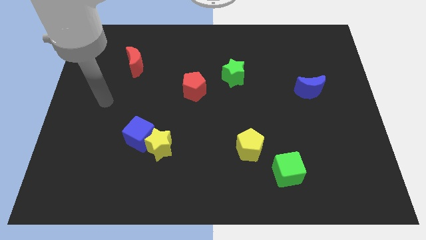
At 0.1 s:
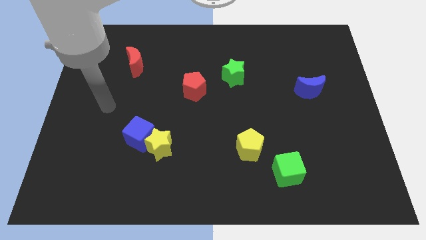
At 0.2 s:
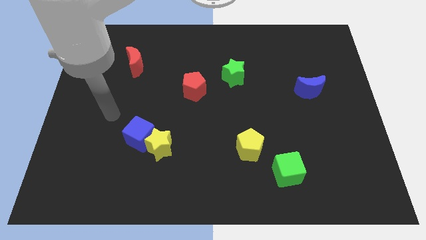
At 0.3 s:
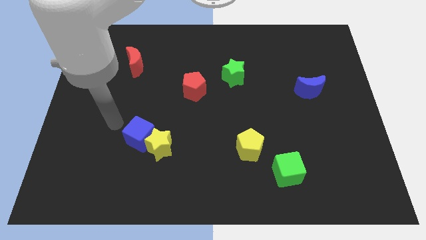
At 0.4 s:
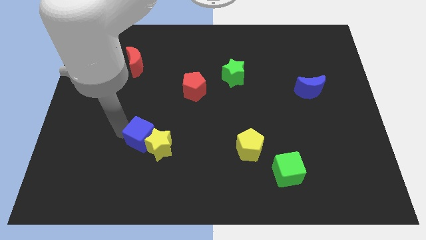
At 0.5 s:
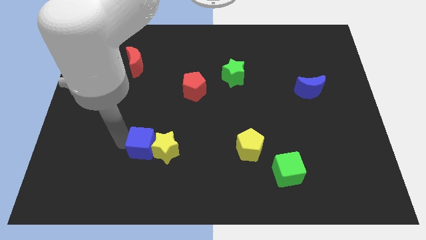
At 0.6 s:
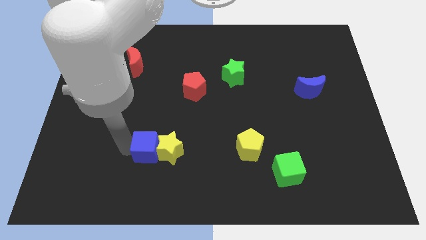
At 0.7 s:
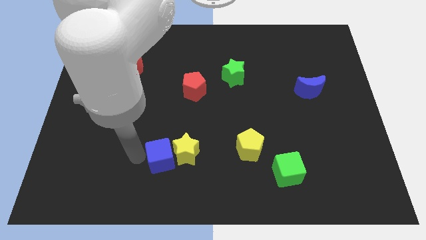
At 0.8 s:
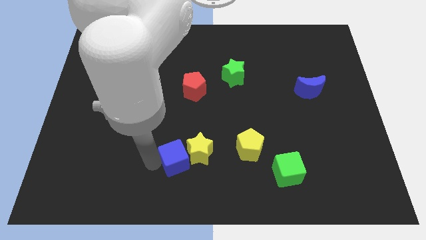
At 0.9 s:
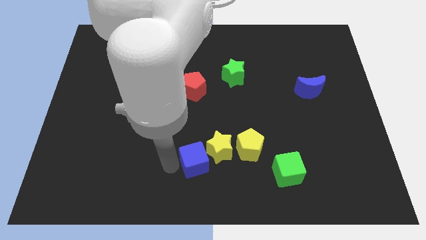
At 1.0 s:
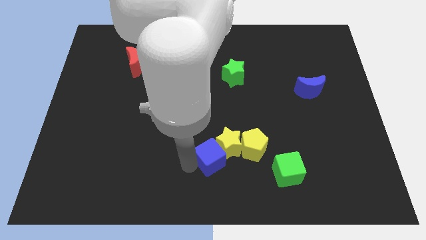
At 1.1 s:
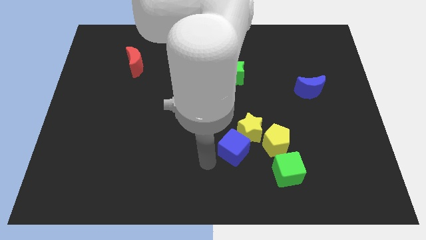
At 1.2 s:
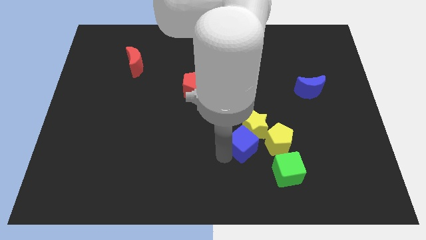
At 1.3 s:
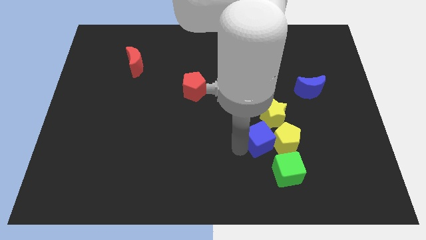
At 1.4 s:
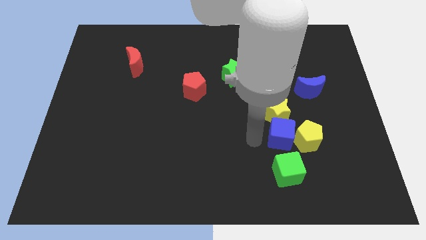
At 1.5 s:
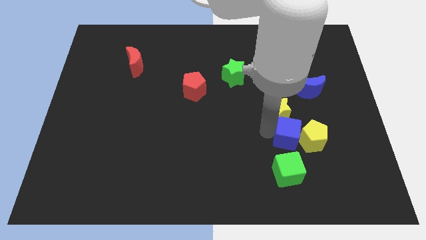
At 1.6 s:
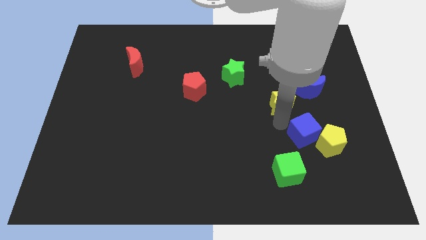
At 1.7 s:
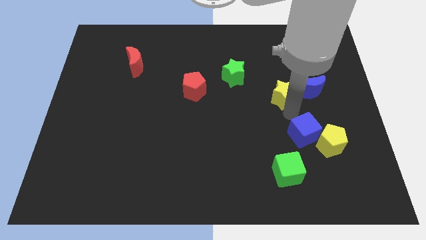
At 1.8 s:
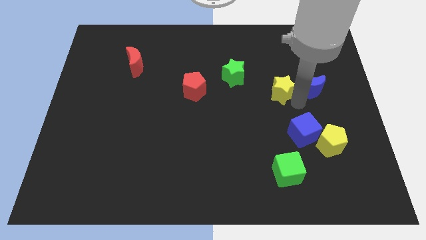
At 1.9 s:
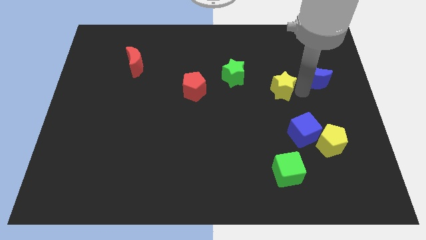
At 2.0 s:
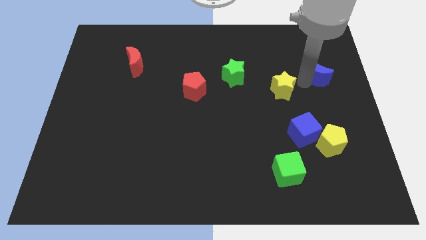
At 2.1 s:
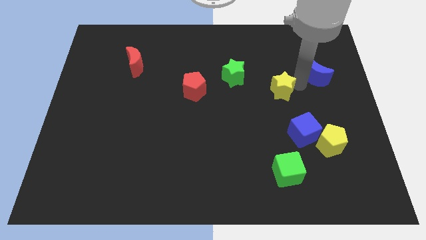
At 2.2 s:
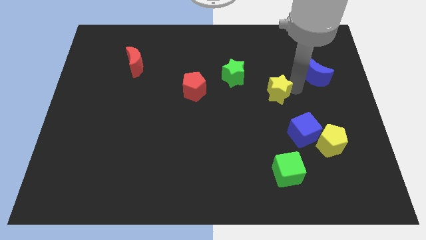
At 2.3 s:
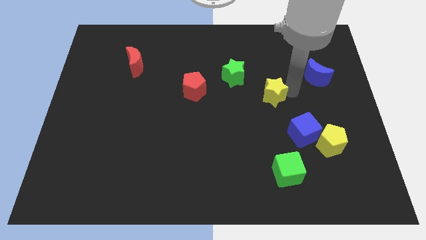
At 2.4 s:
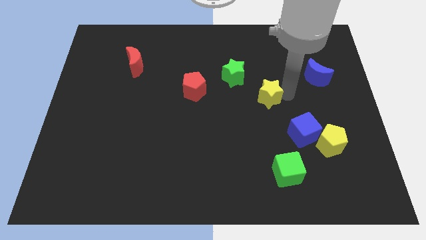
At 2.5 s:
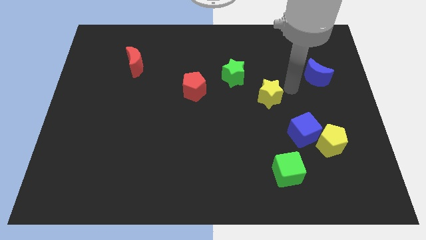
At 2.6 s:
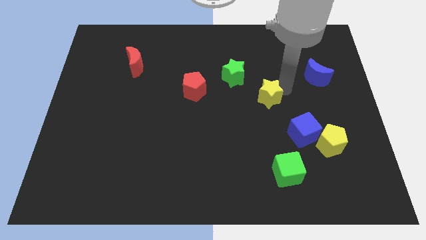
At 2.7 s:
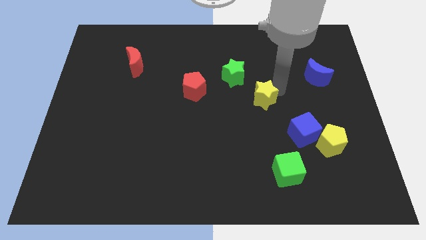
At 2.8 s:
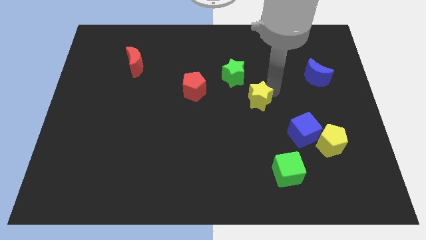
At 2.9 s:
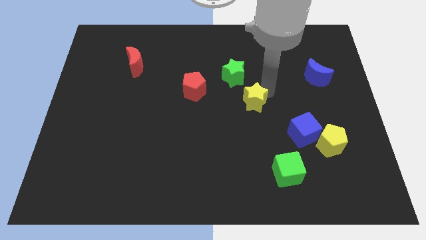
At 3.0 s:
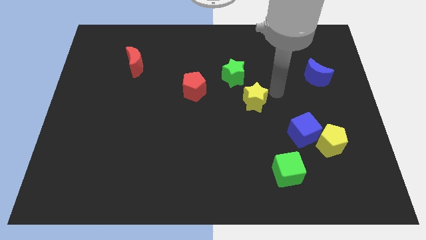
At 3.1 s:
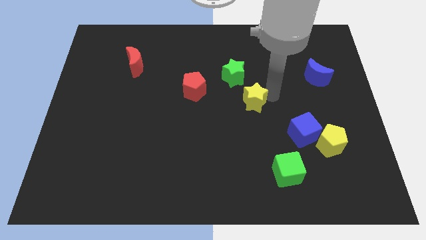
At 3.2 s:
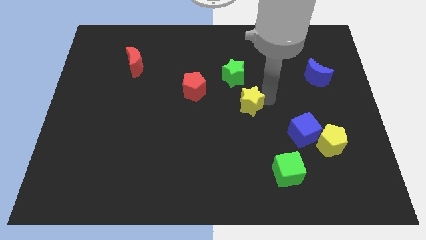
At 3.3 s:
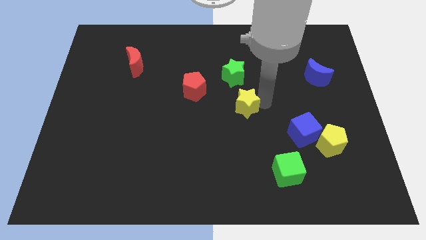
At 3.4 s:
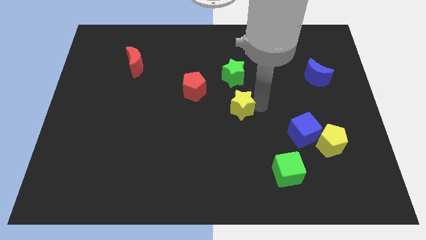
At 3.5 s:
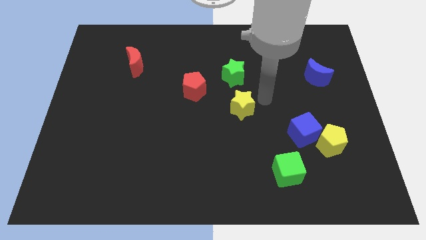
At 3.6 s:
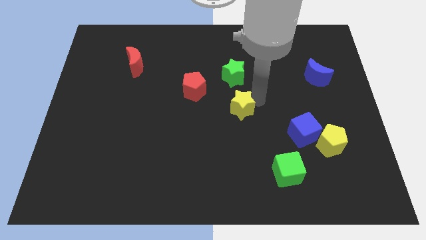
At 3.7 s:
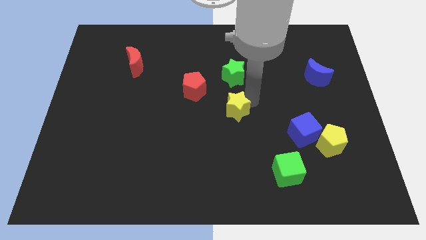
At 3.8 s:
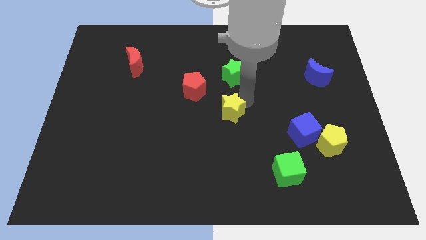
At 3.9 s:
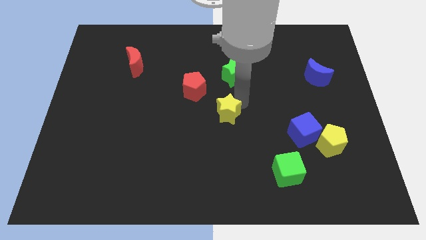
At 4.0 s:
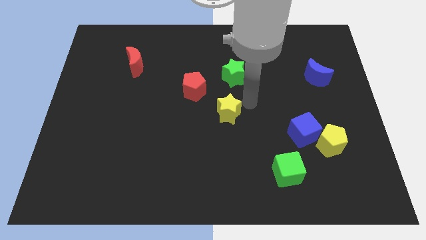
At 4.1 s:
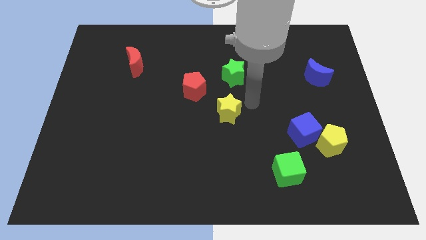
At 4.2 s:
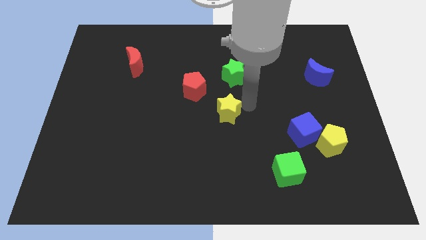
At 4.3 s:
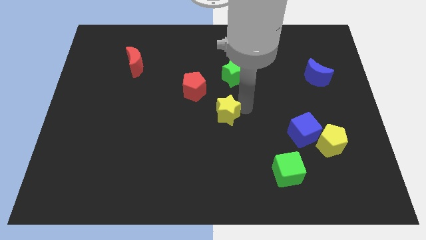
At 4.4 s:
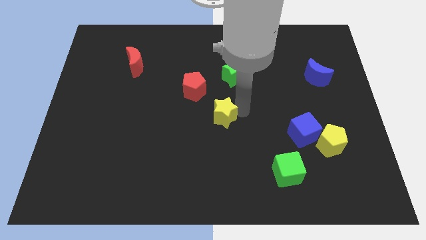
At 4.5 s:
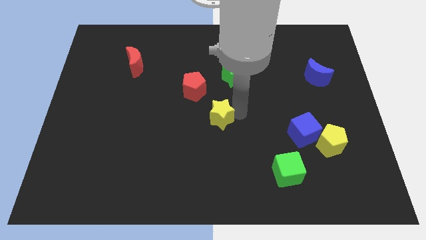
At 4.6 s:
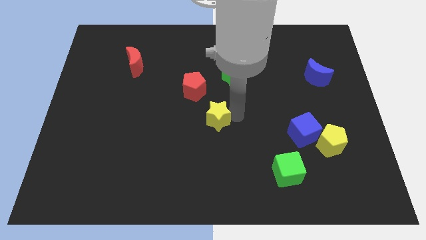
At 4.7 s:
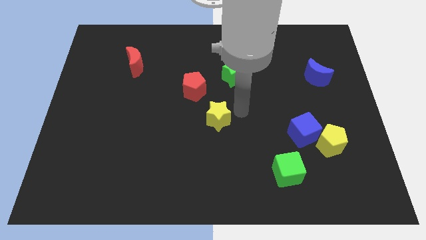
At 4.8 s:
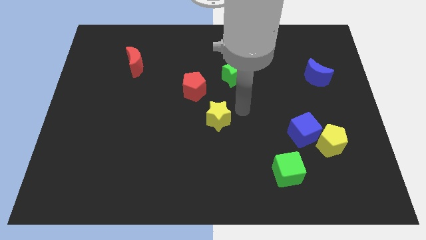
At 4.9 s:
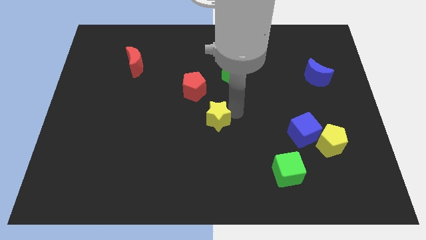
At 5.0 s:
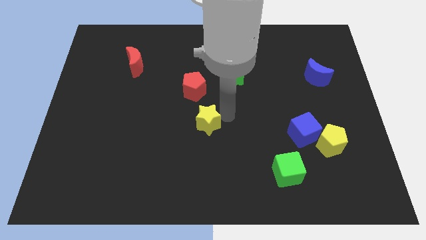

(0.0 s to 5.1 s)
put the yellow star to the bottom side of the red pentagon

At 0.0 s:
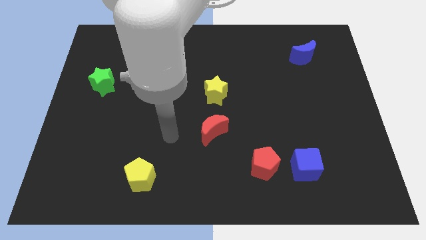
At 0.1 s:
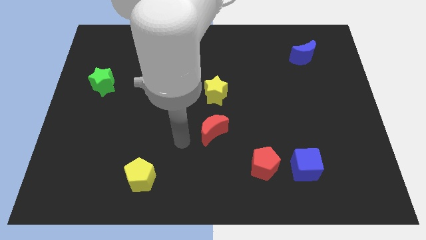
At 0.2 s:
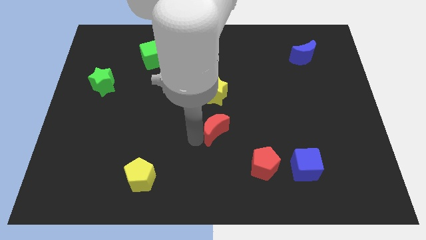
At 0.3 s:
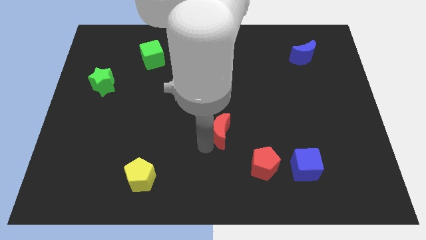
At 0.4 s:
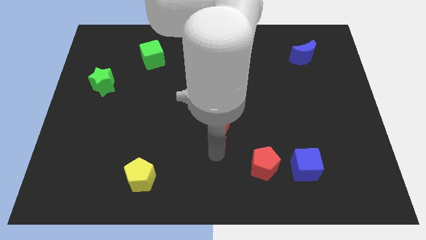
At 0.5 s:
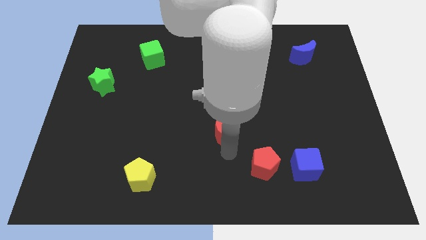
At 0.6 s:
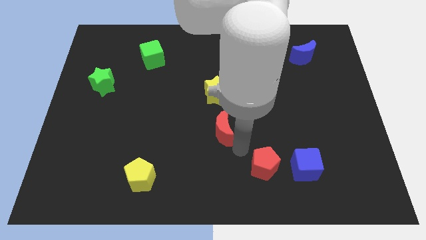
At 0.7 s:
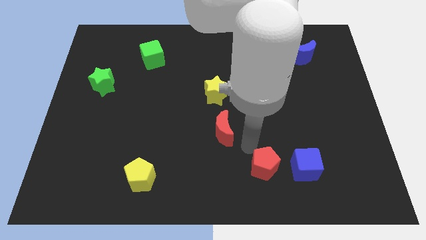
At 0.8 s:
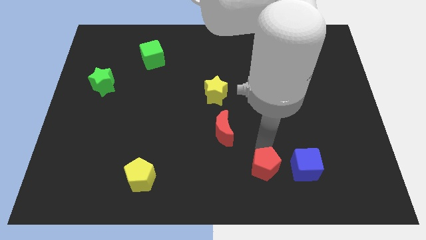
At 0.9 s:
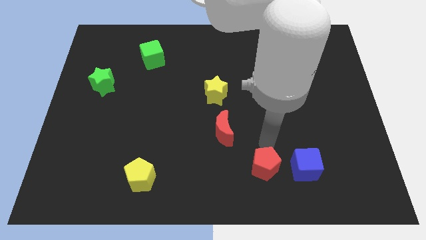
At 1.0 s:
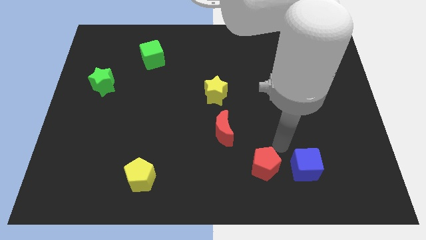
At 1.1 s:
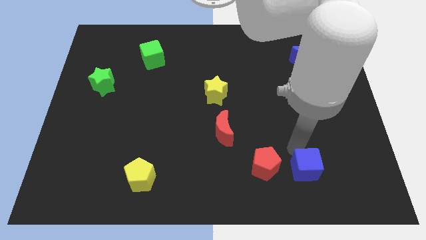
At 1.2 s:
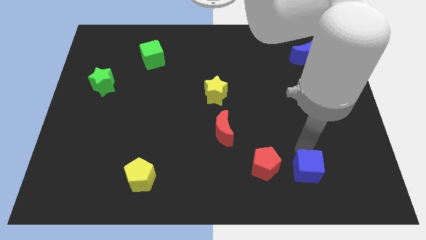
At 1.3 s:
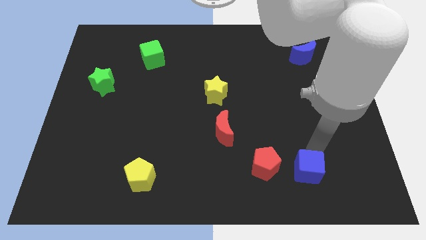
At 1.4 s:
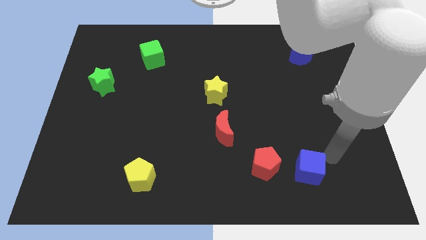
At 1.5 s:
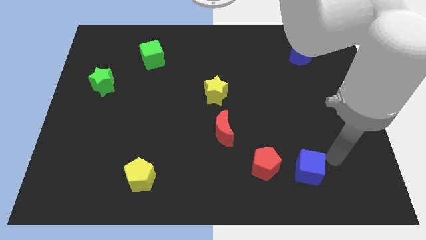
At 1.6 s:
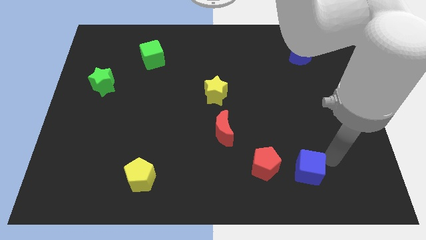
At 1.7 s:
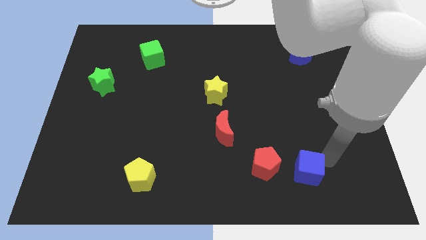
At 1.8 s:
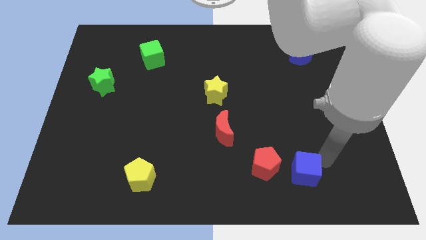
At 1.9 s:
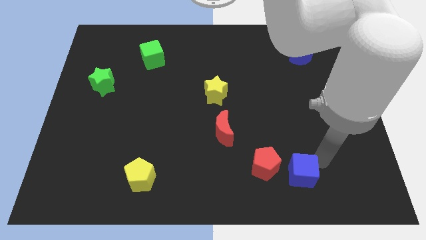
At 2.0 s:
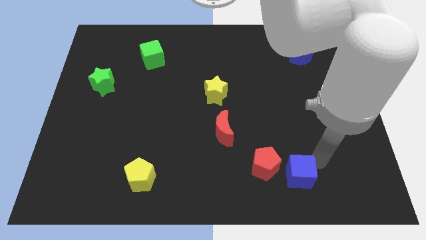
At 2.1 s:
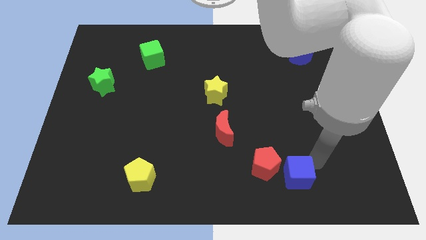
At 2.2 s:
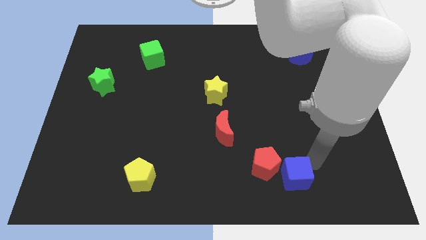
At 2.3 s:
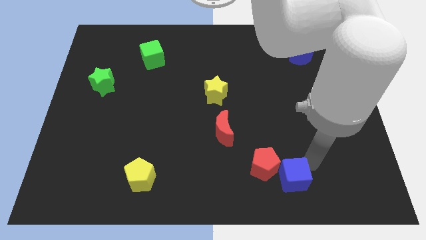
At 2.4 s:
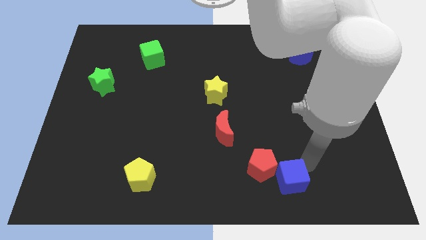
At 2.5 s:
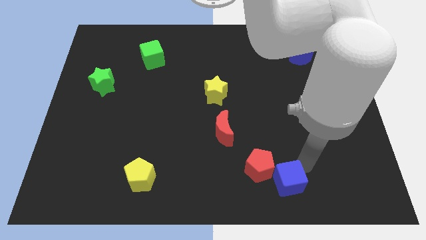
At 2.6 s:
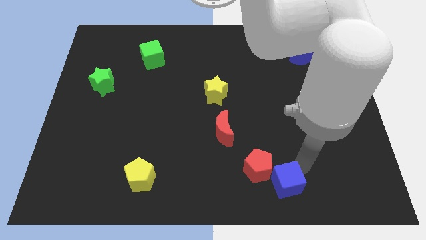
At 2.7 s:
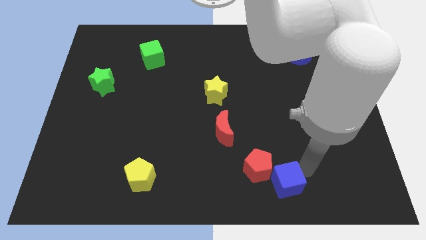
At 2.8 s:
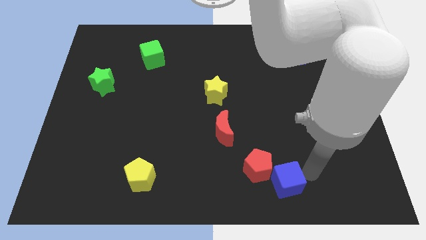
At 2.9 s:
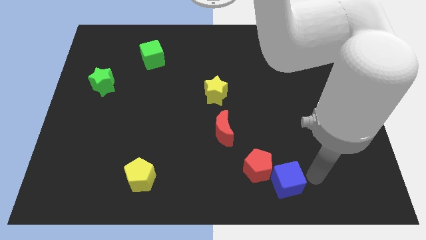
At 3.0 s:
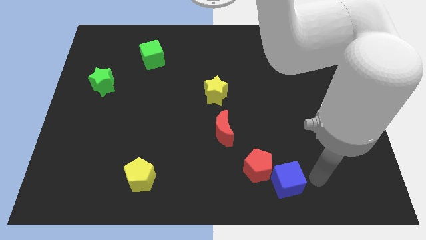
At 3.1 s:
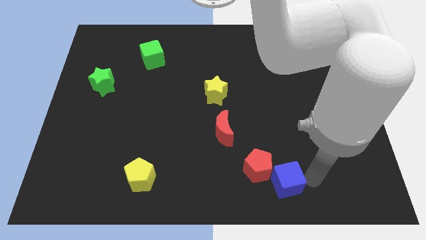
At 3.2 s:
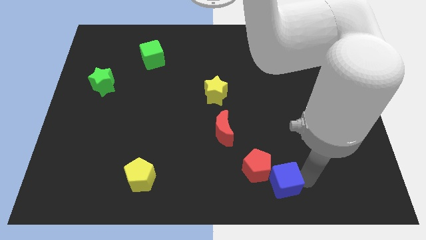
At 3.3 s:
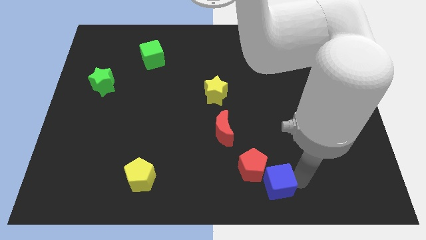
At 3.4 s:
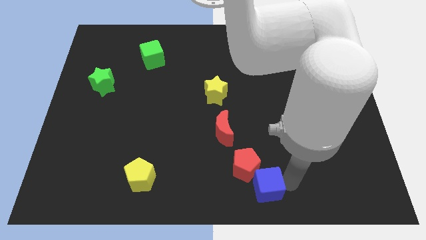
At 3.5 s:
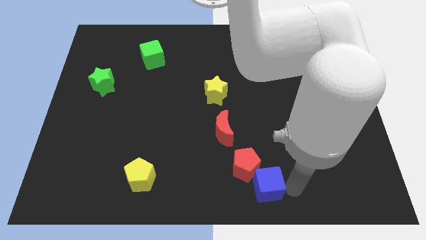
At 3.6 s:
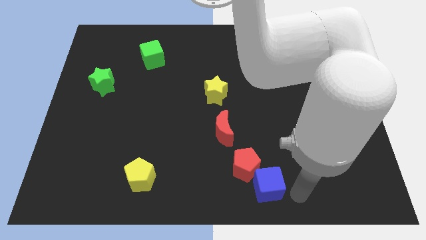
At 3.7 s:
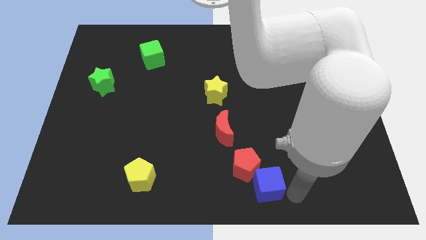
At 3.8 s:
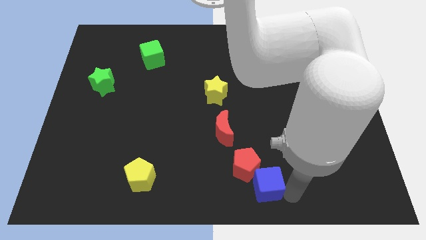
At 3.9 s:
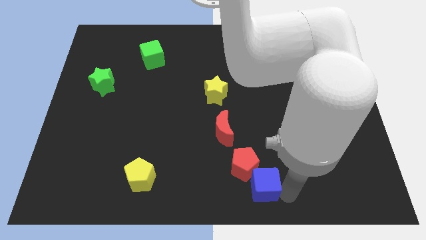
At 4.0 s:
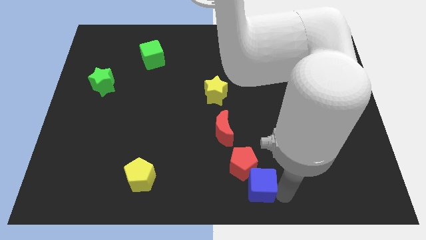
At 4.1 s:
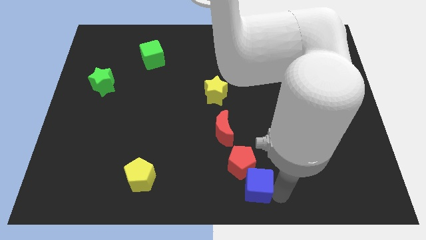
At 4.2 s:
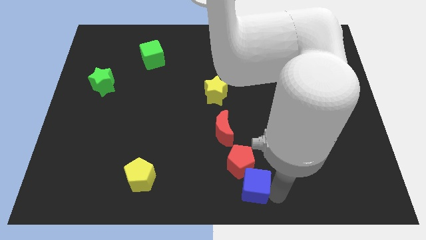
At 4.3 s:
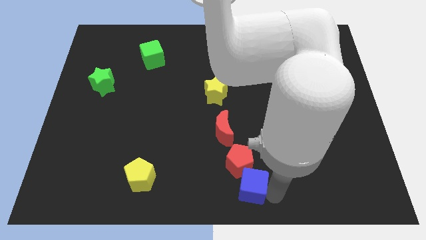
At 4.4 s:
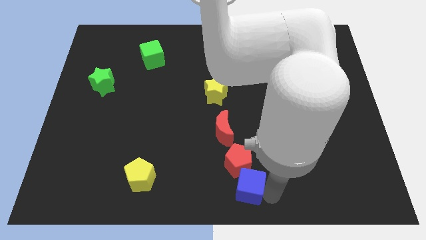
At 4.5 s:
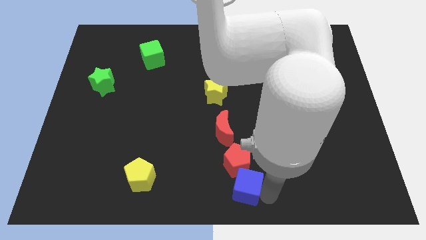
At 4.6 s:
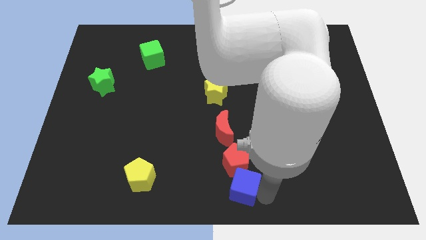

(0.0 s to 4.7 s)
move the blue cube below the red moon
